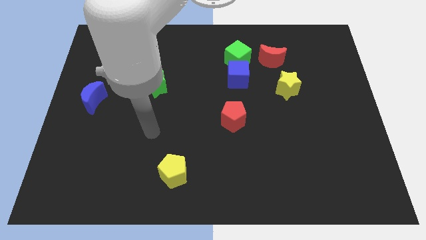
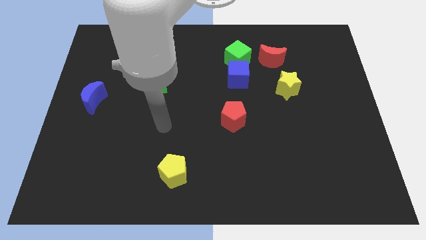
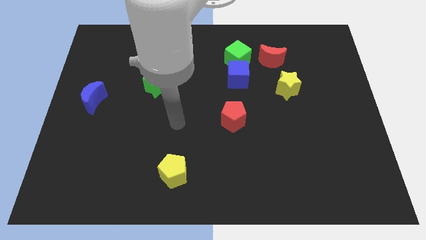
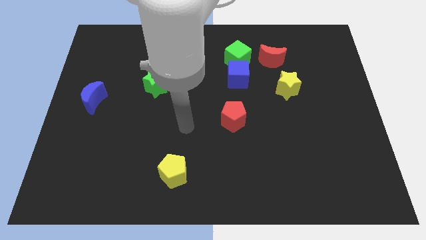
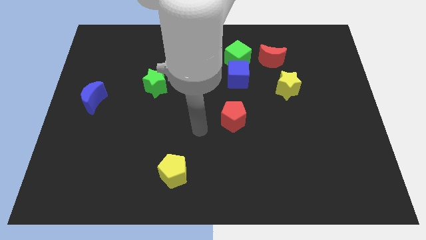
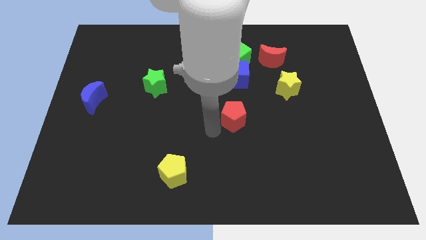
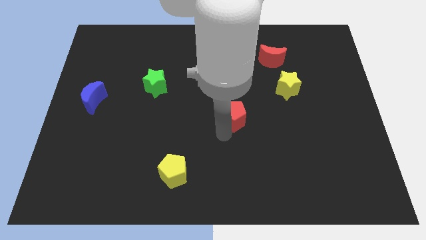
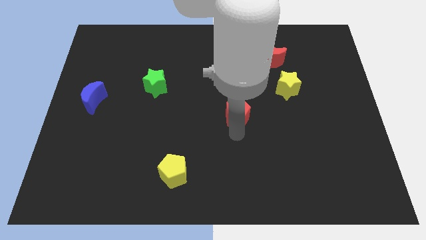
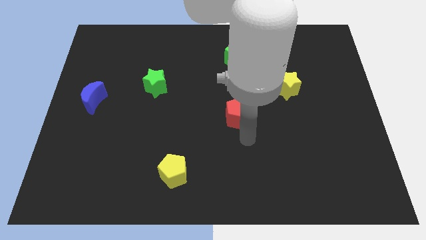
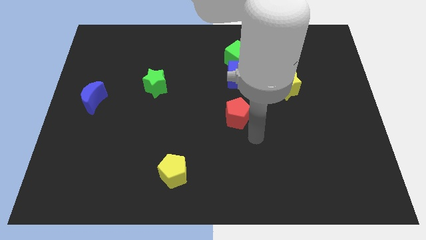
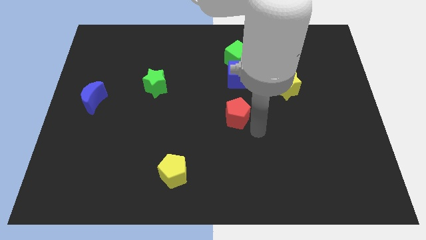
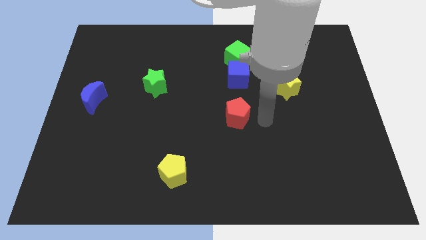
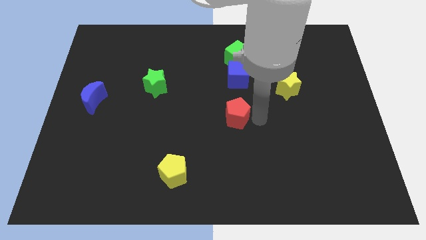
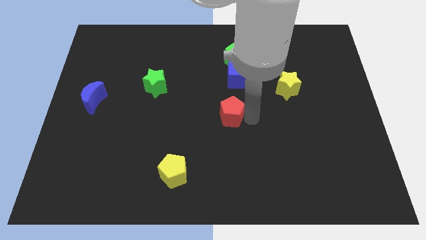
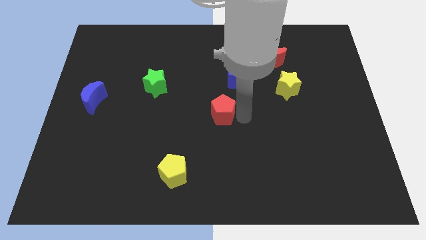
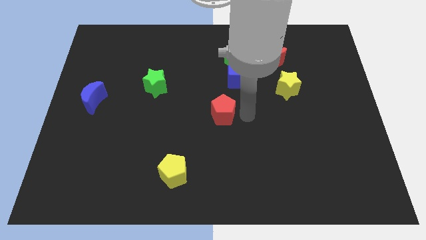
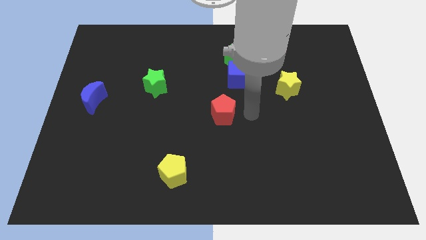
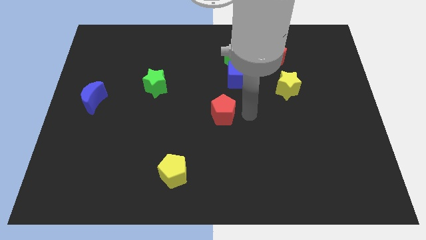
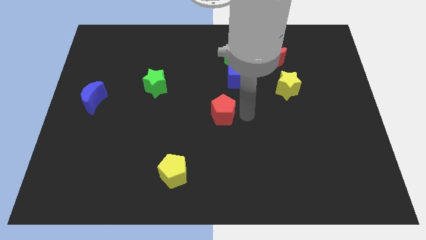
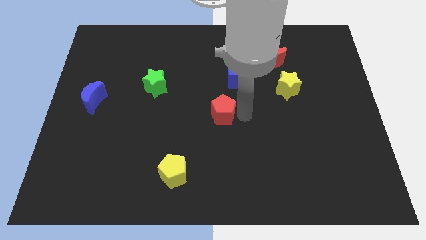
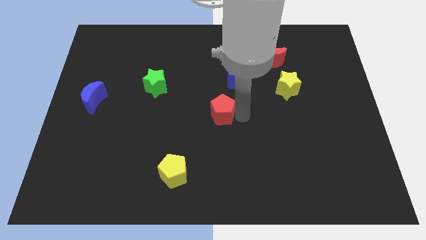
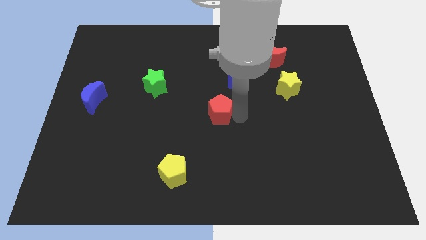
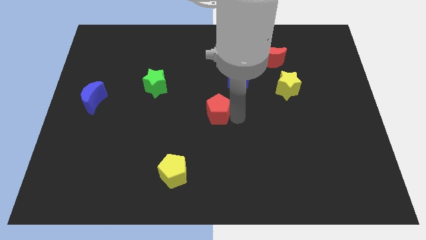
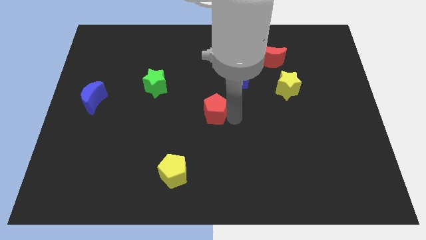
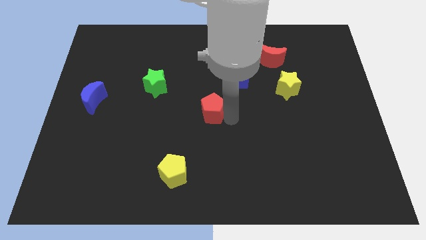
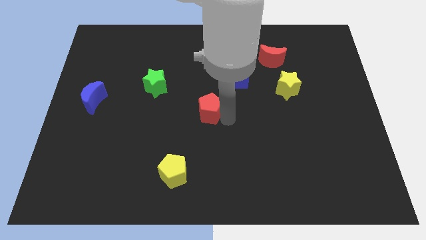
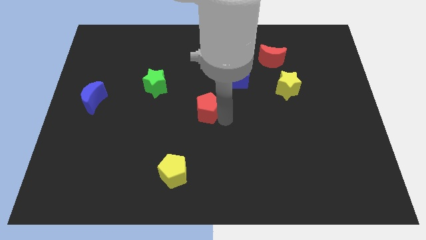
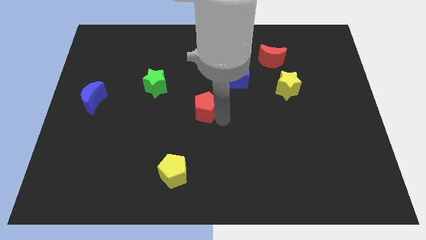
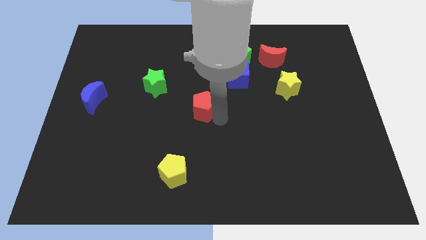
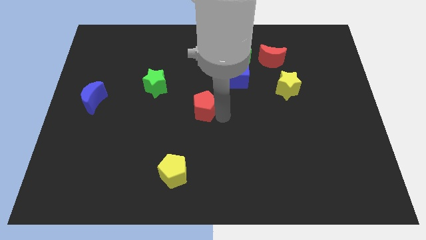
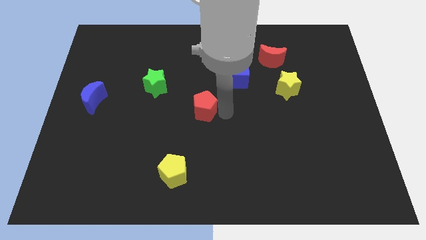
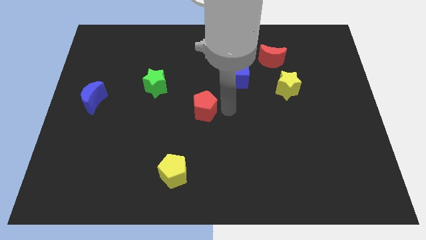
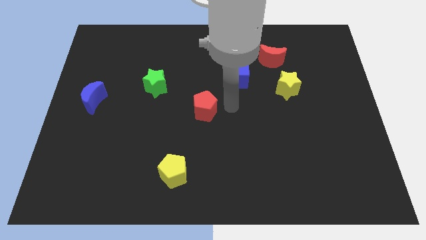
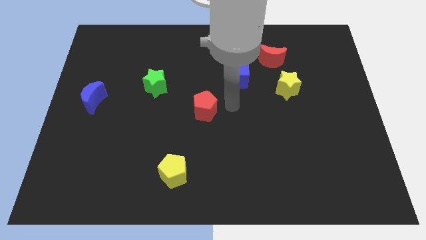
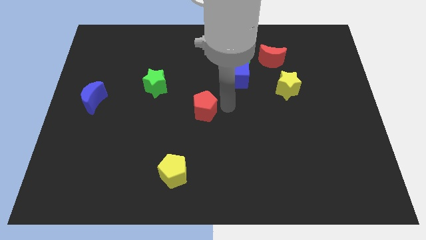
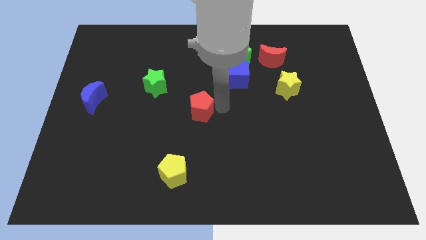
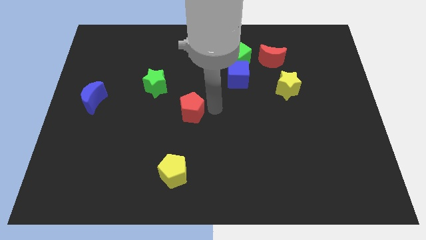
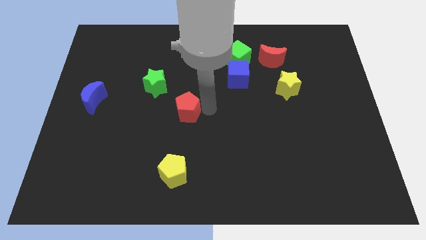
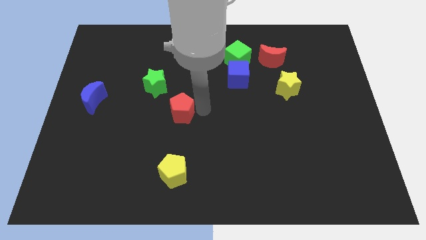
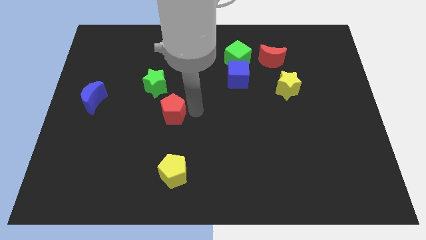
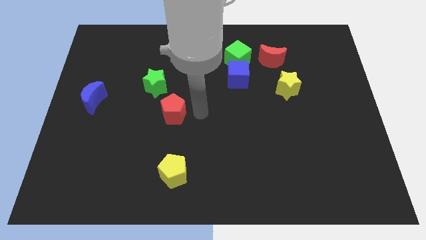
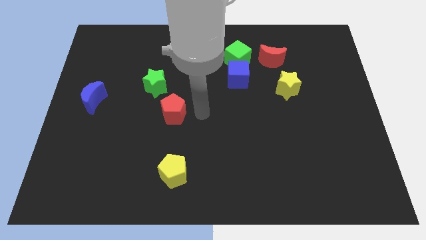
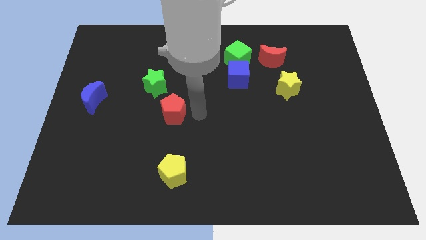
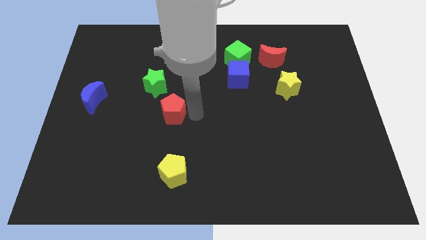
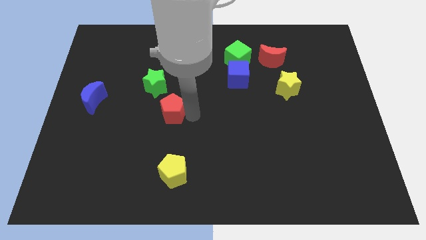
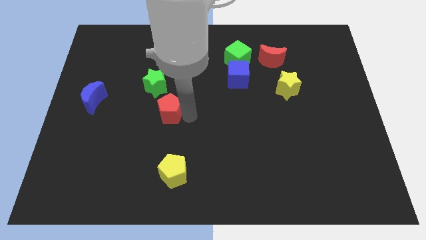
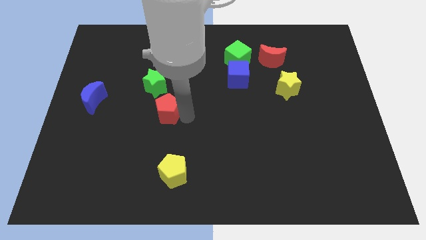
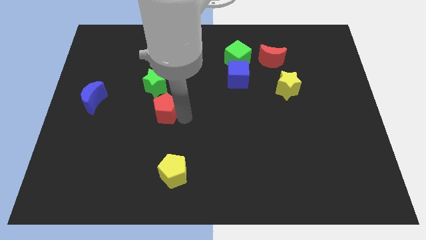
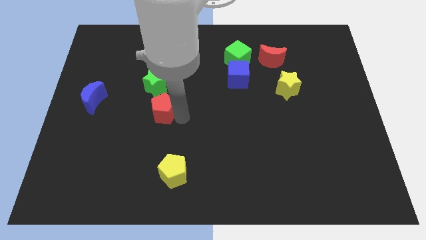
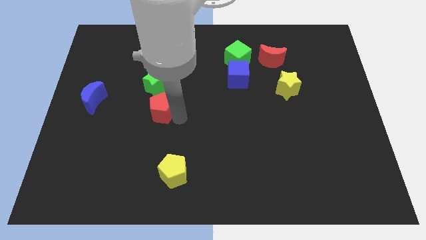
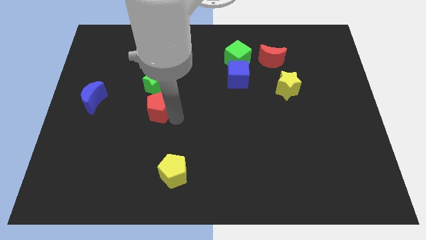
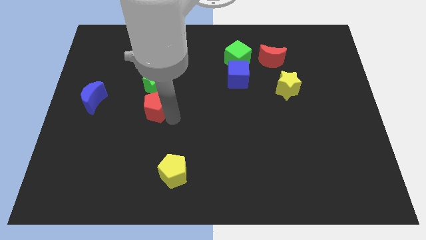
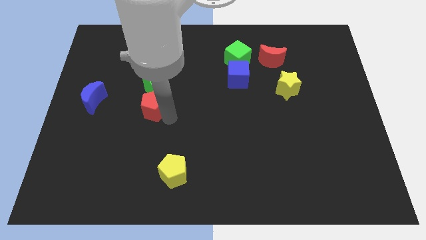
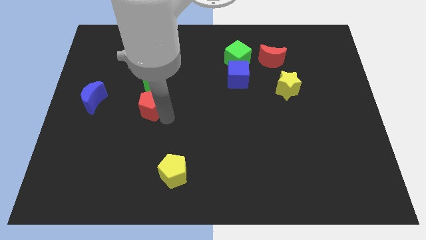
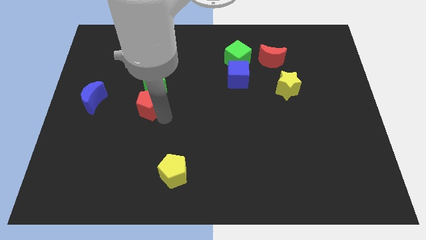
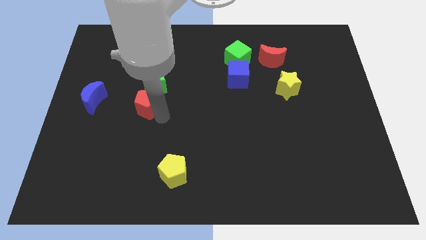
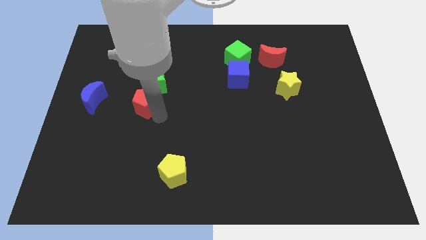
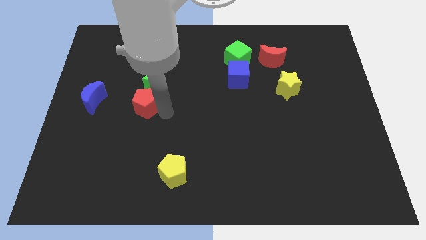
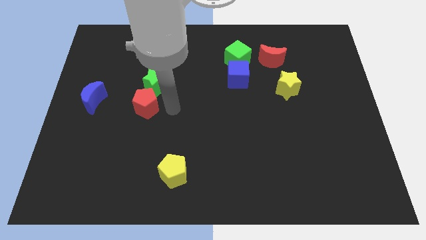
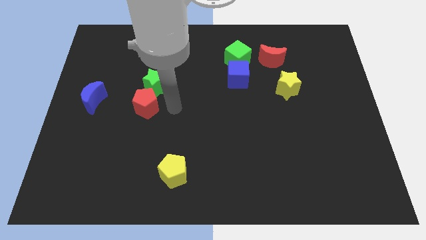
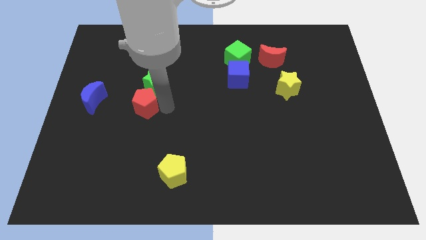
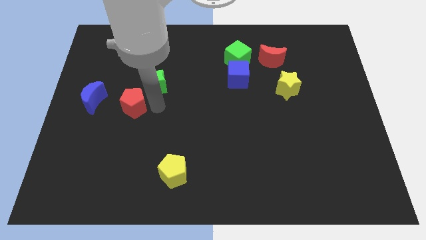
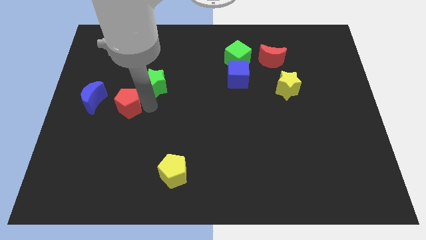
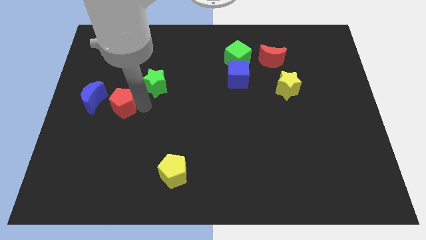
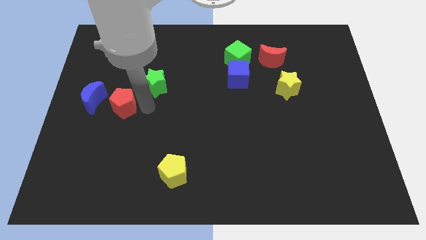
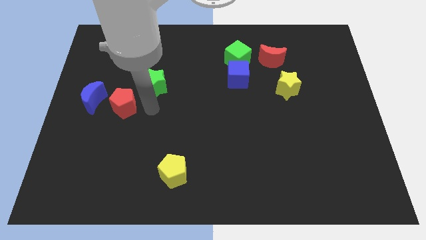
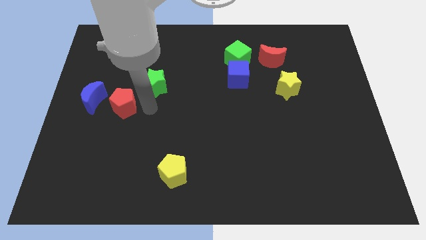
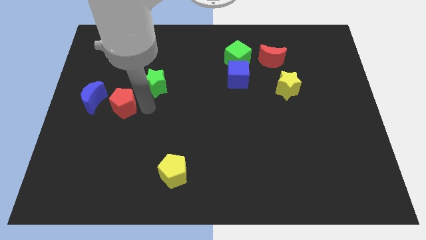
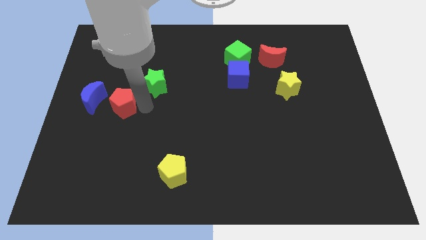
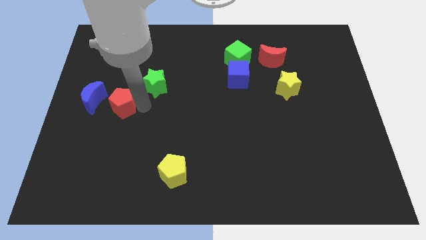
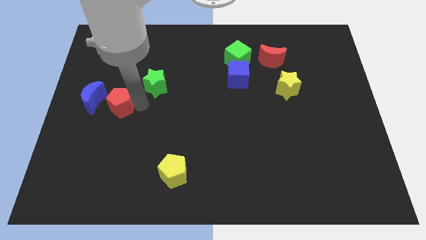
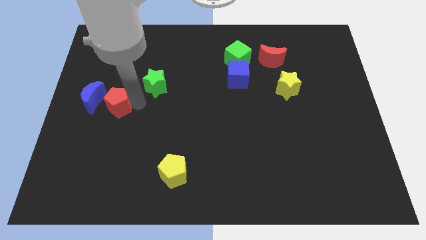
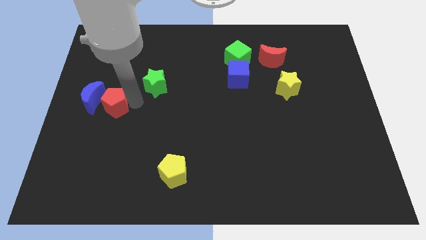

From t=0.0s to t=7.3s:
push the red pentagon to the blue moon
